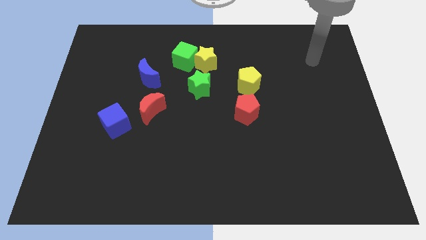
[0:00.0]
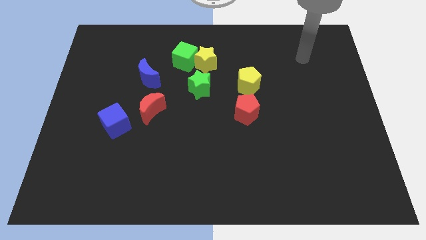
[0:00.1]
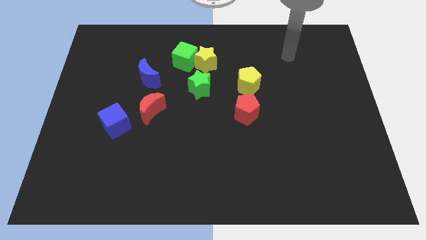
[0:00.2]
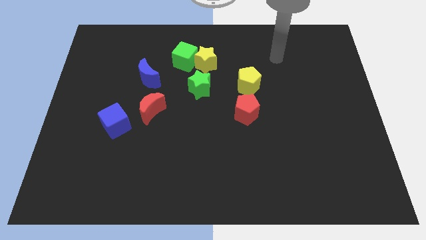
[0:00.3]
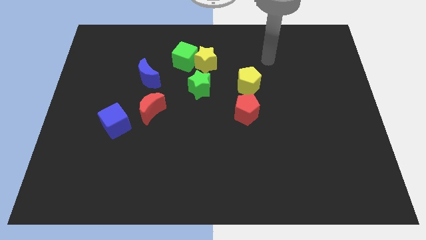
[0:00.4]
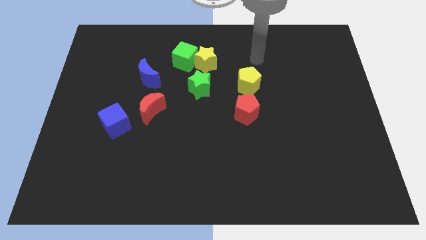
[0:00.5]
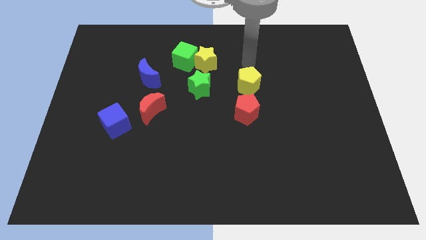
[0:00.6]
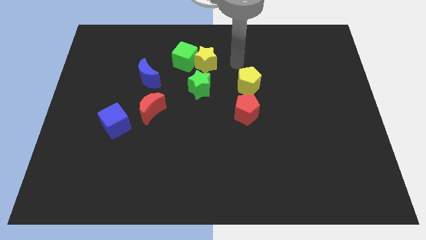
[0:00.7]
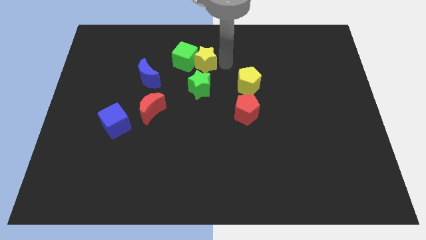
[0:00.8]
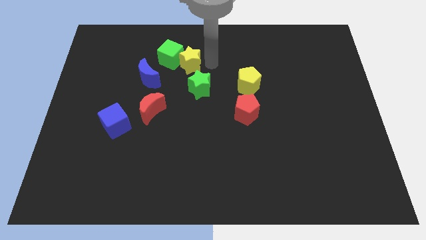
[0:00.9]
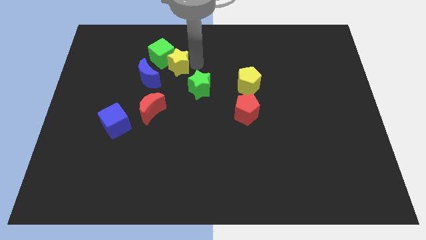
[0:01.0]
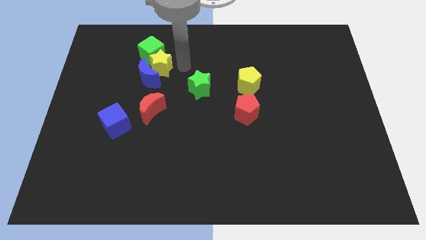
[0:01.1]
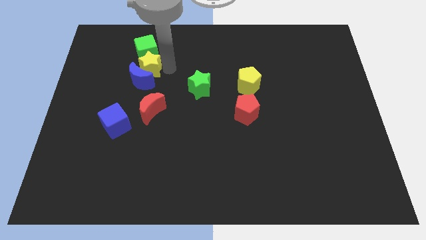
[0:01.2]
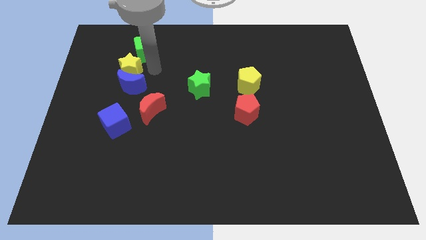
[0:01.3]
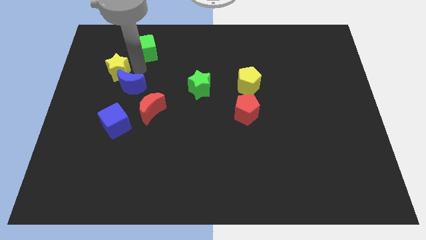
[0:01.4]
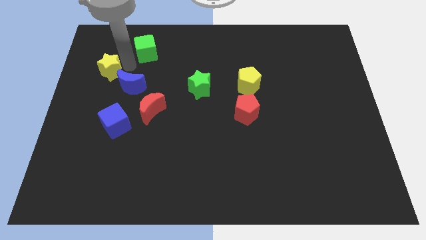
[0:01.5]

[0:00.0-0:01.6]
separate the green cube from the yellow star

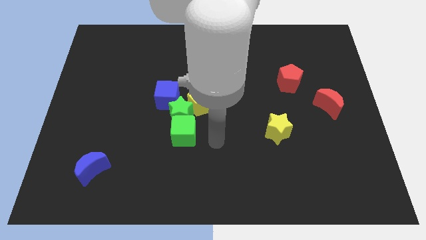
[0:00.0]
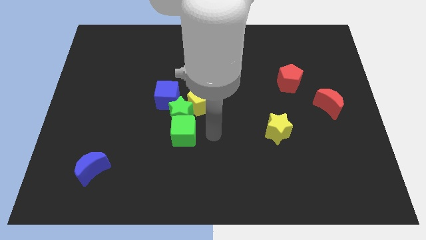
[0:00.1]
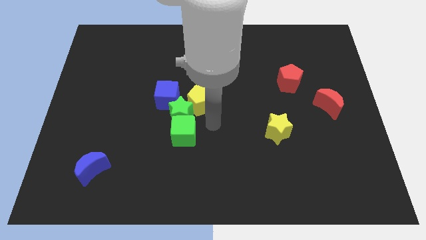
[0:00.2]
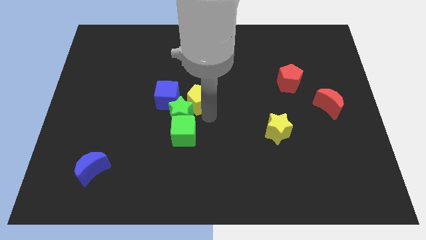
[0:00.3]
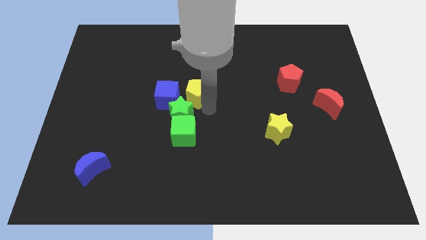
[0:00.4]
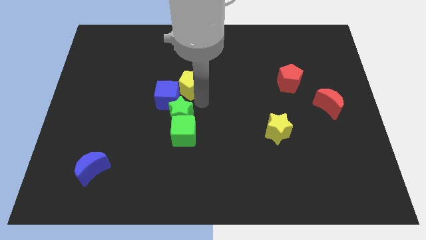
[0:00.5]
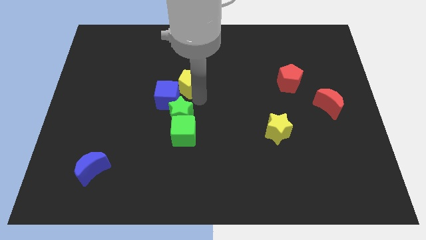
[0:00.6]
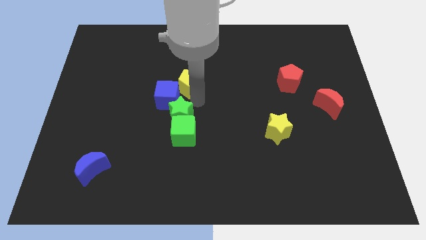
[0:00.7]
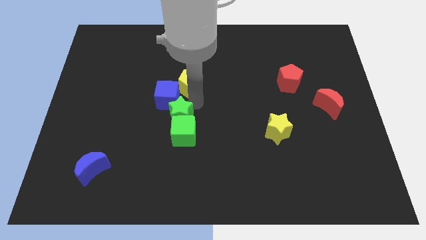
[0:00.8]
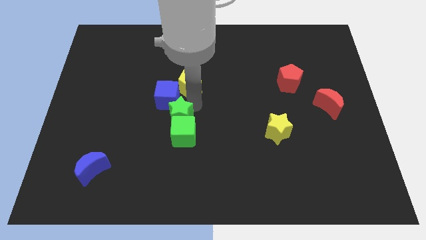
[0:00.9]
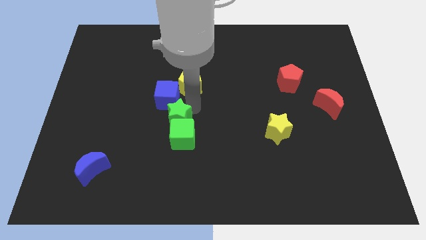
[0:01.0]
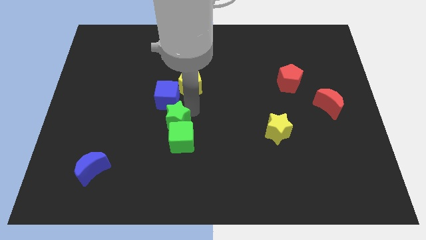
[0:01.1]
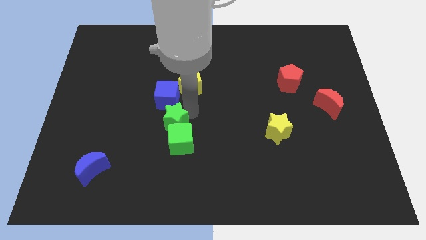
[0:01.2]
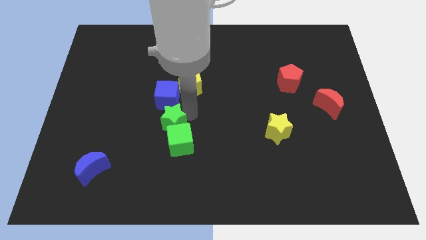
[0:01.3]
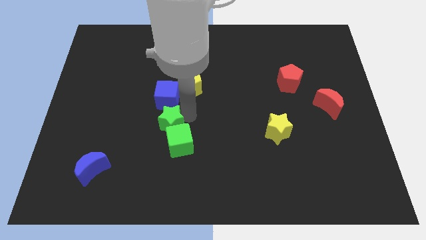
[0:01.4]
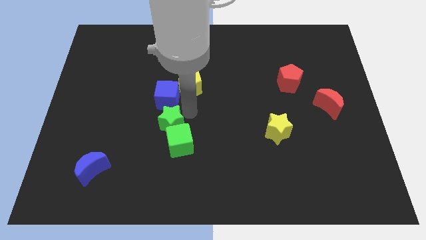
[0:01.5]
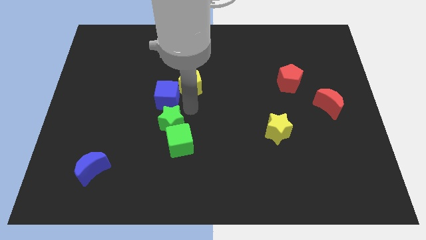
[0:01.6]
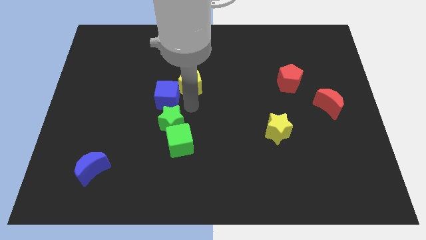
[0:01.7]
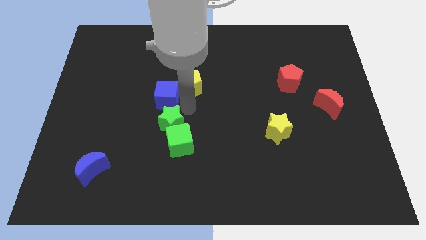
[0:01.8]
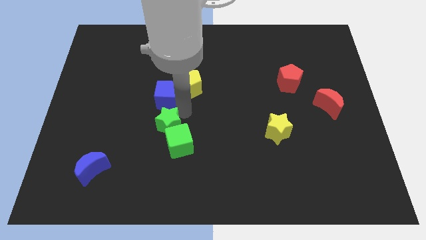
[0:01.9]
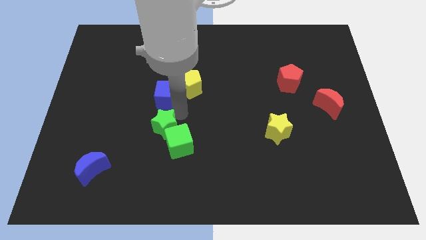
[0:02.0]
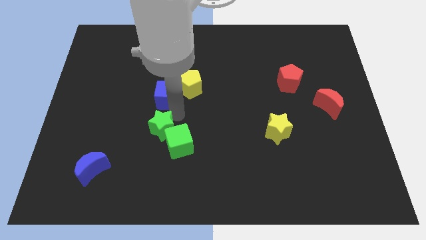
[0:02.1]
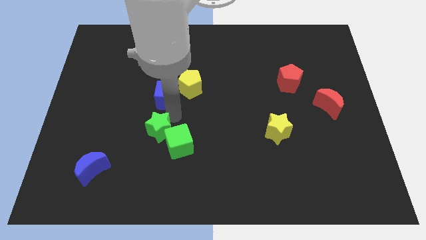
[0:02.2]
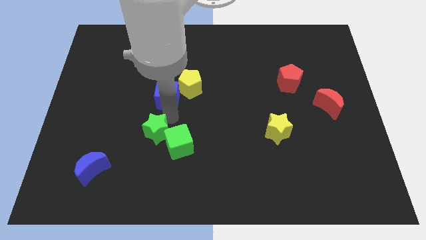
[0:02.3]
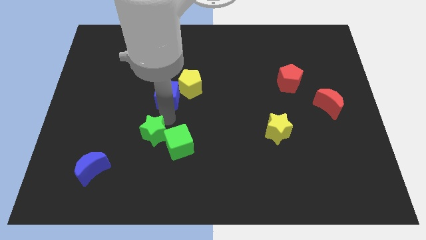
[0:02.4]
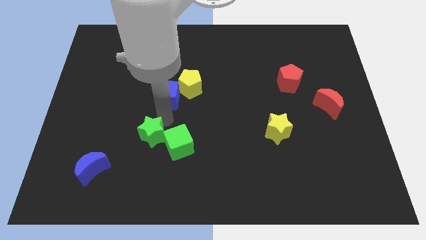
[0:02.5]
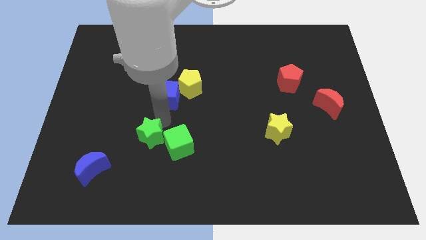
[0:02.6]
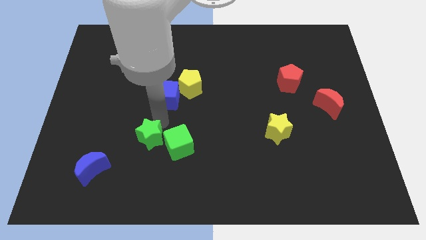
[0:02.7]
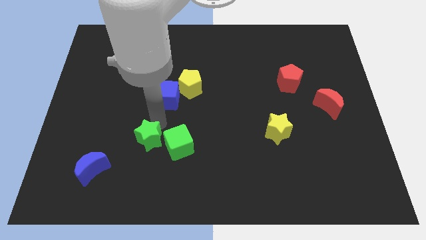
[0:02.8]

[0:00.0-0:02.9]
separate the green star from the clump

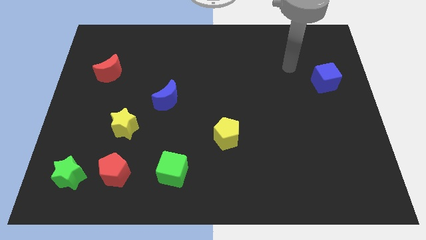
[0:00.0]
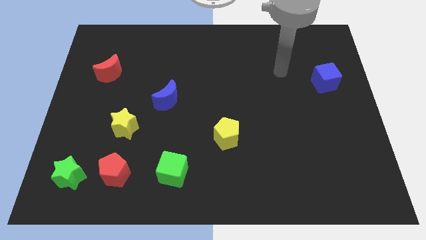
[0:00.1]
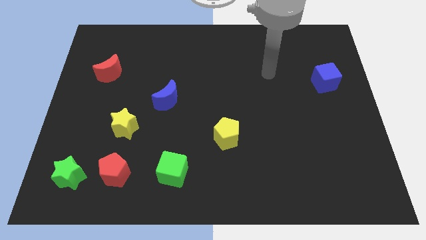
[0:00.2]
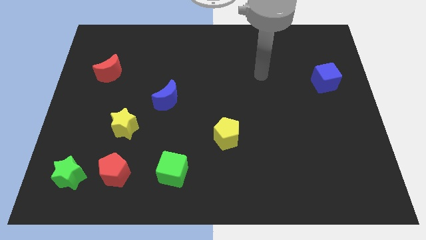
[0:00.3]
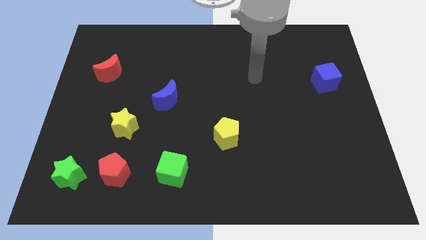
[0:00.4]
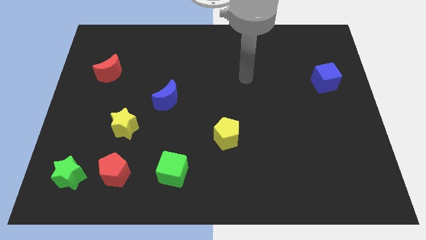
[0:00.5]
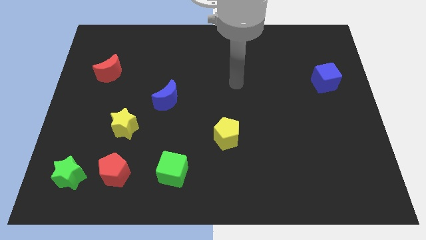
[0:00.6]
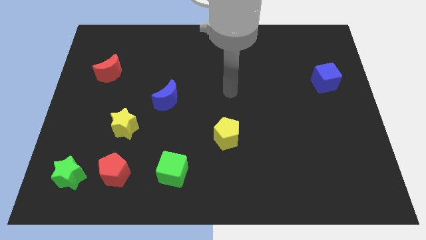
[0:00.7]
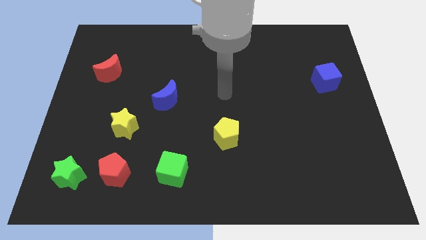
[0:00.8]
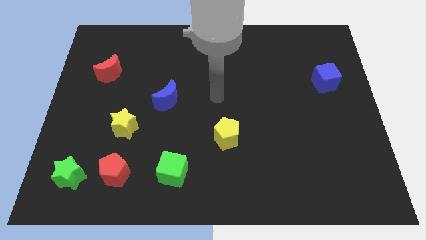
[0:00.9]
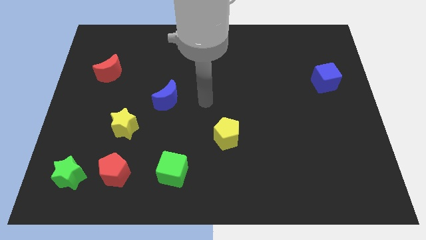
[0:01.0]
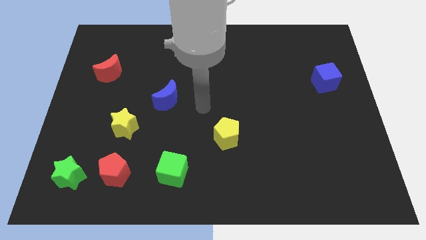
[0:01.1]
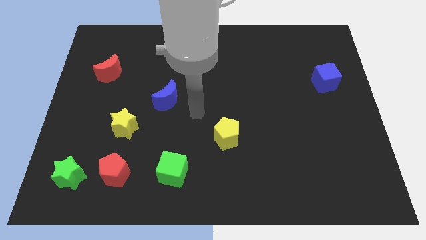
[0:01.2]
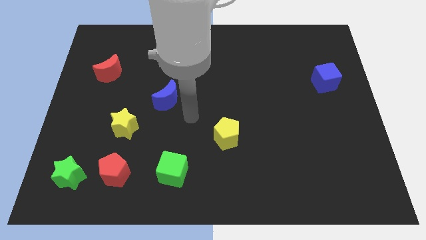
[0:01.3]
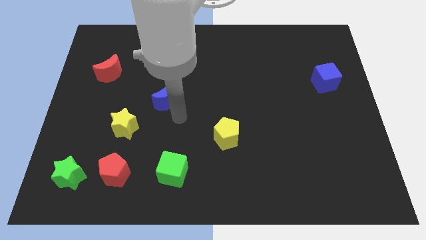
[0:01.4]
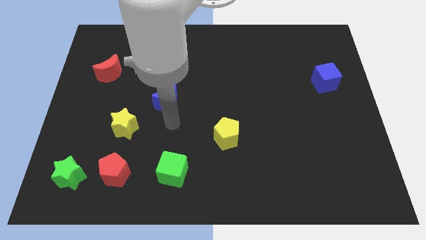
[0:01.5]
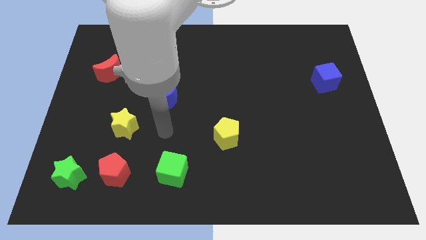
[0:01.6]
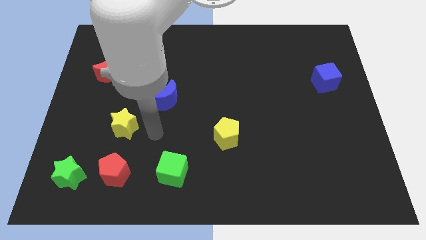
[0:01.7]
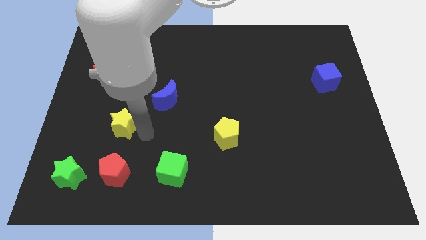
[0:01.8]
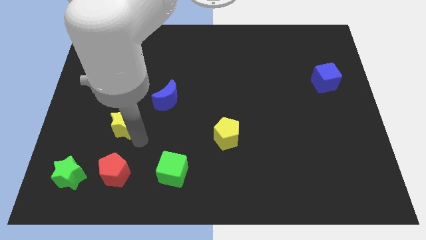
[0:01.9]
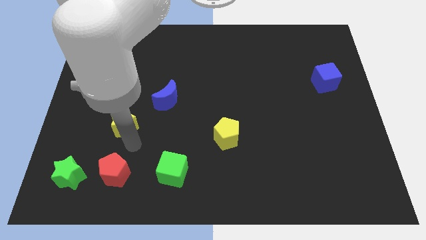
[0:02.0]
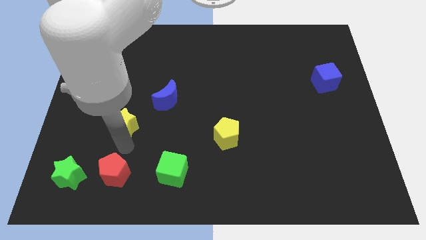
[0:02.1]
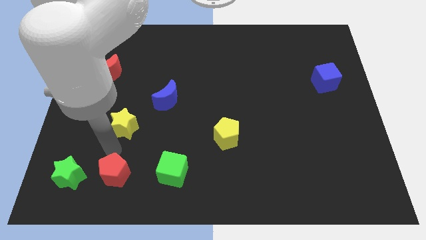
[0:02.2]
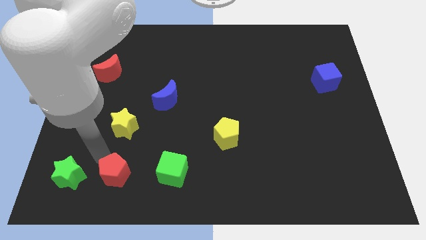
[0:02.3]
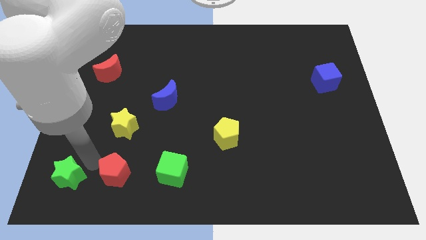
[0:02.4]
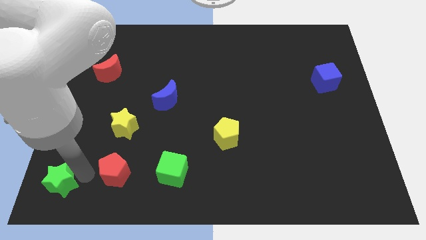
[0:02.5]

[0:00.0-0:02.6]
separate the red pentagon from the green star

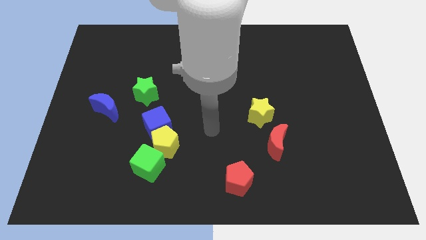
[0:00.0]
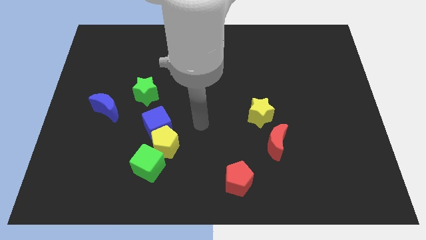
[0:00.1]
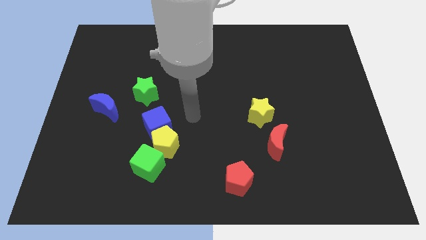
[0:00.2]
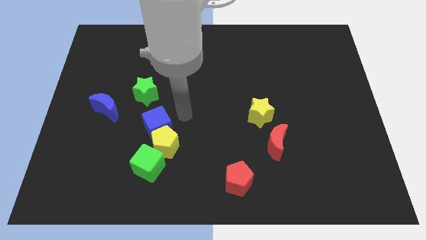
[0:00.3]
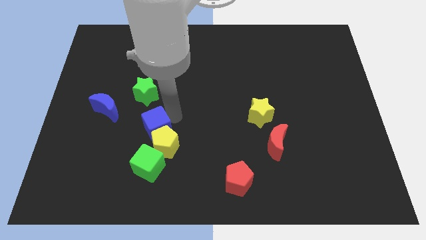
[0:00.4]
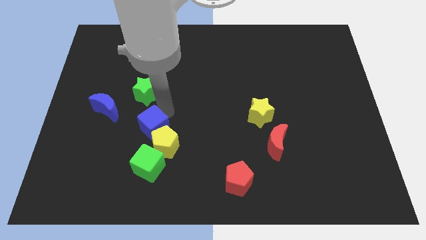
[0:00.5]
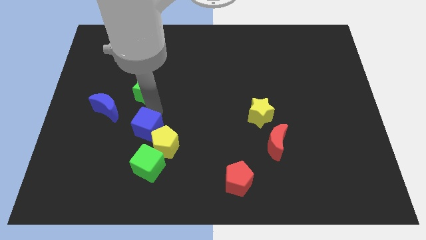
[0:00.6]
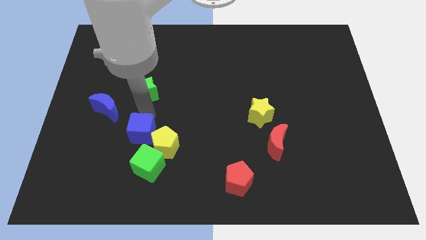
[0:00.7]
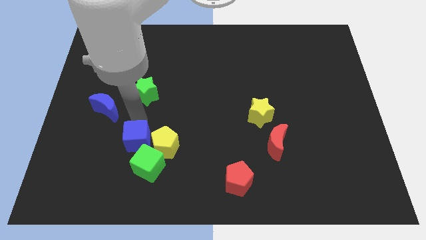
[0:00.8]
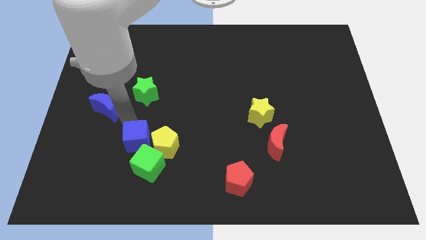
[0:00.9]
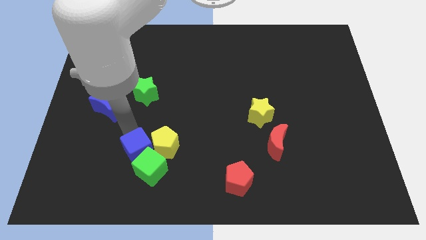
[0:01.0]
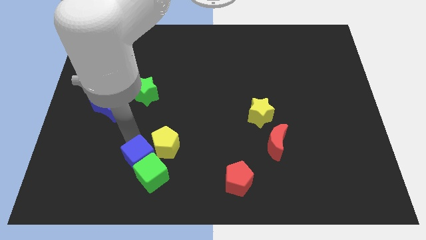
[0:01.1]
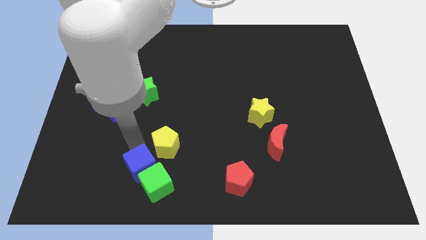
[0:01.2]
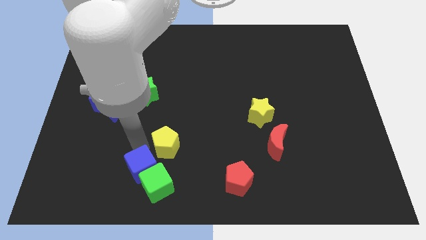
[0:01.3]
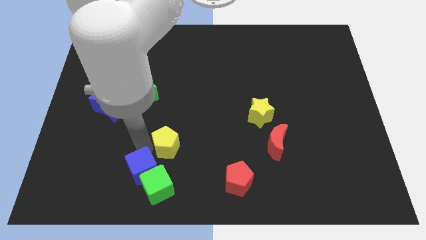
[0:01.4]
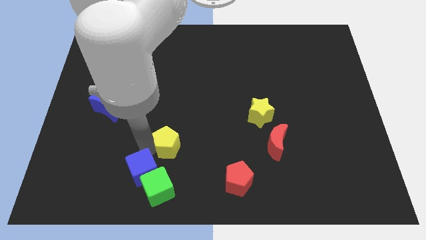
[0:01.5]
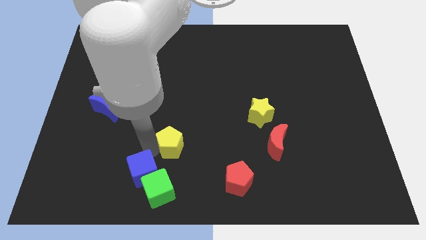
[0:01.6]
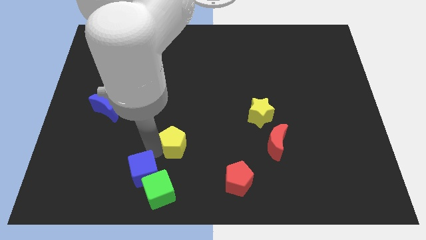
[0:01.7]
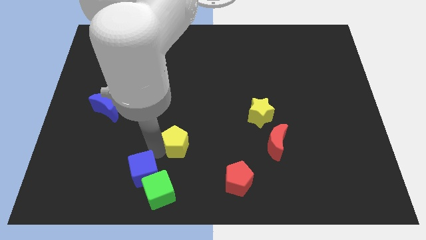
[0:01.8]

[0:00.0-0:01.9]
separate the yellow pentagon from the blue cube and green cube

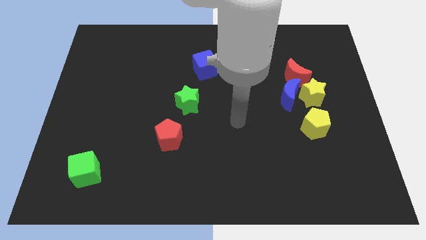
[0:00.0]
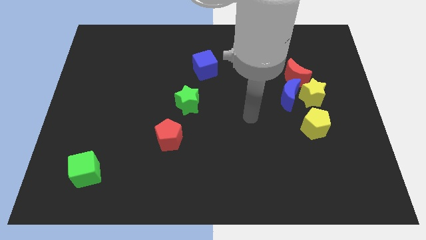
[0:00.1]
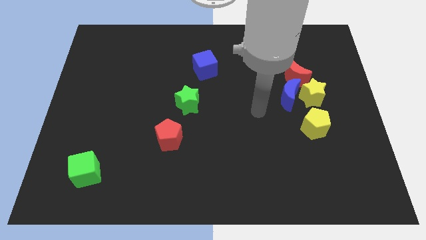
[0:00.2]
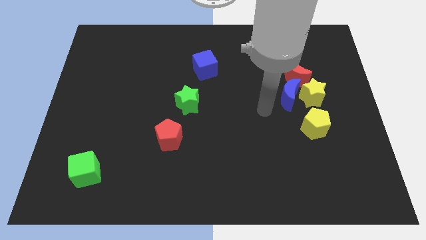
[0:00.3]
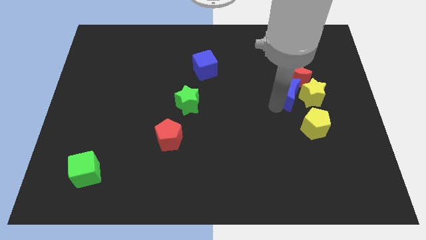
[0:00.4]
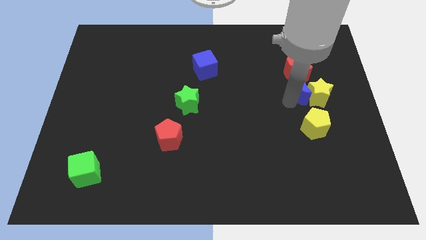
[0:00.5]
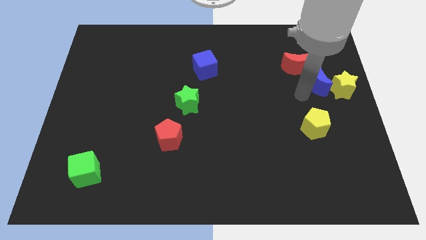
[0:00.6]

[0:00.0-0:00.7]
pull the red moon apart from the blue moon and yellow star
